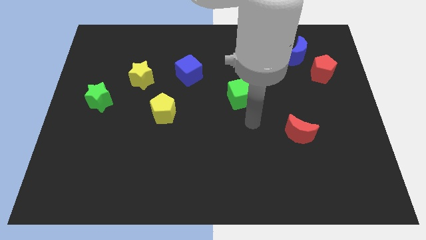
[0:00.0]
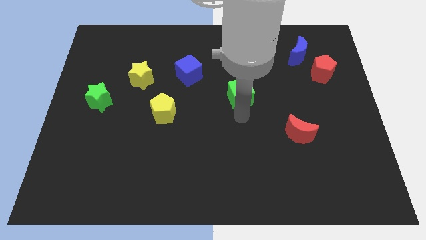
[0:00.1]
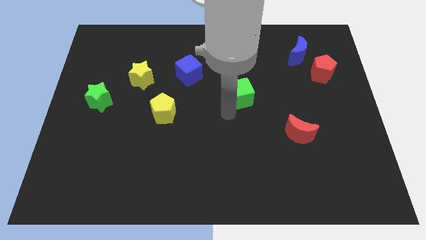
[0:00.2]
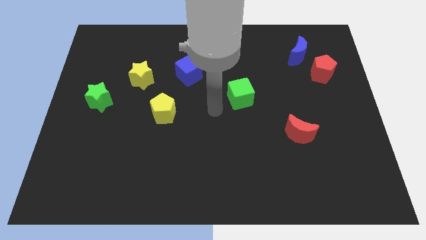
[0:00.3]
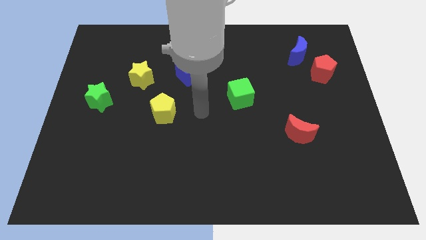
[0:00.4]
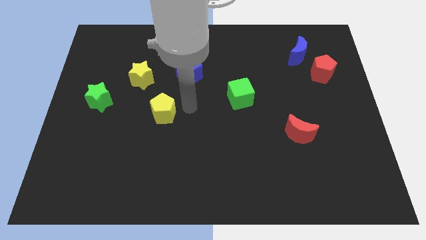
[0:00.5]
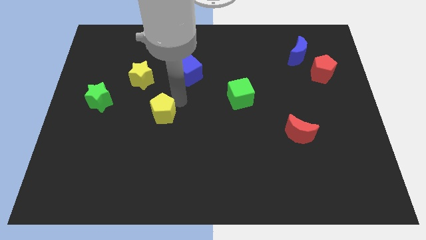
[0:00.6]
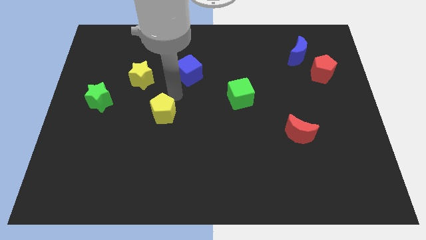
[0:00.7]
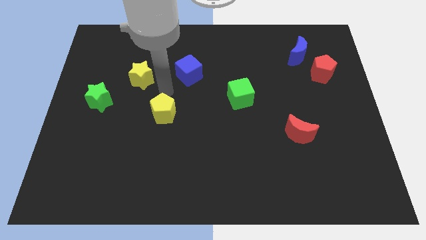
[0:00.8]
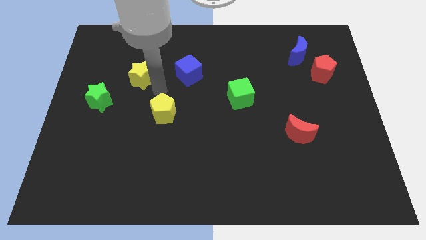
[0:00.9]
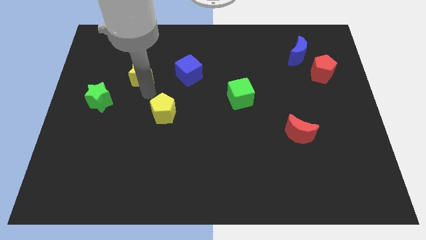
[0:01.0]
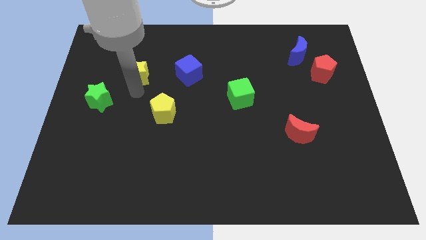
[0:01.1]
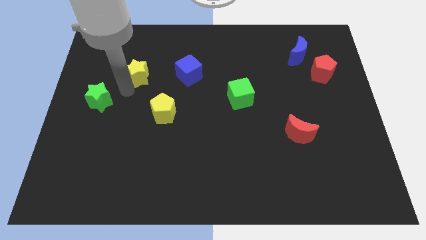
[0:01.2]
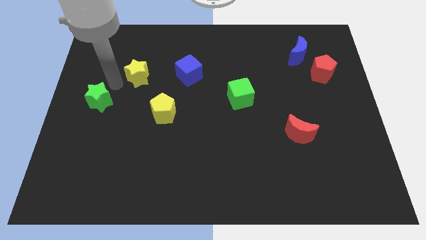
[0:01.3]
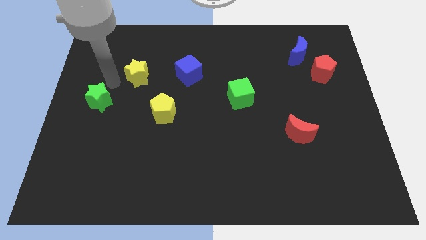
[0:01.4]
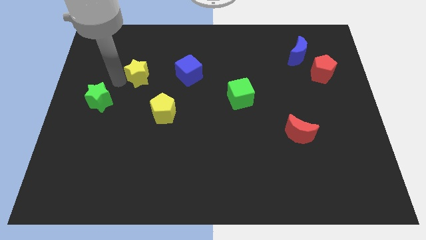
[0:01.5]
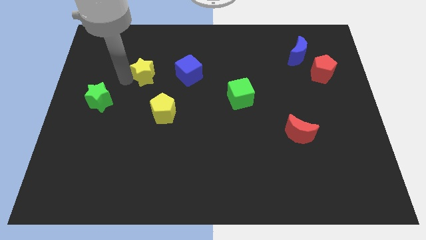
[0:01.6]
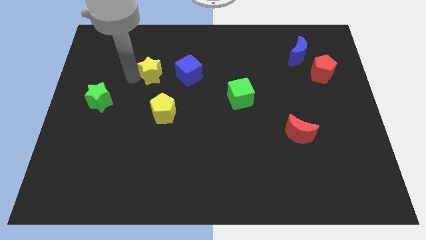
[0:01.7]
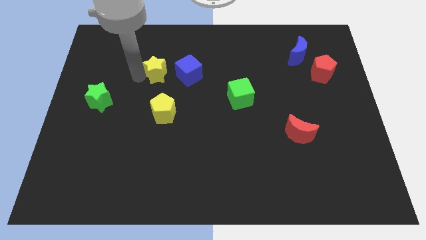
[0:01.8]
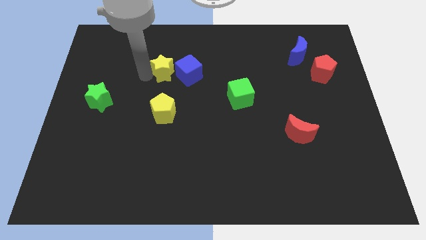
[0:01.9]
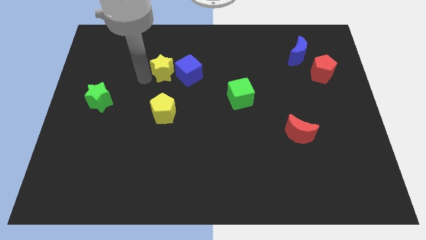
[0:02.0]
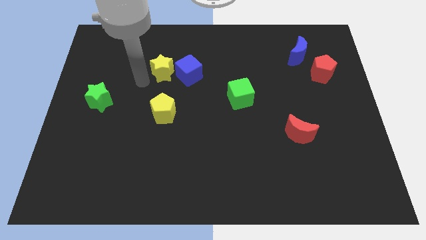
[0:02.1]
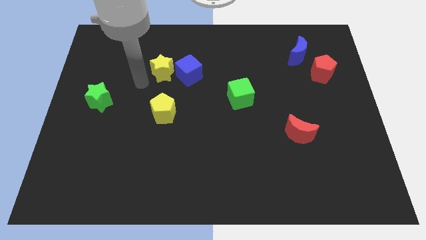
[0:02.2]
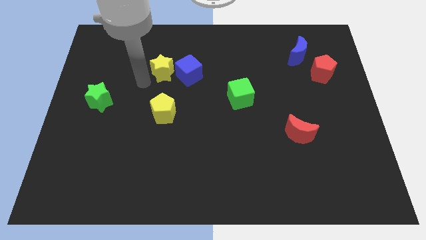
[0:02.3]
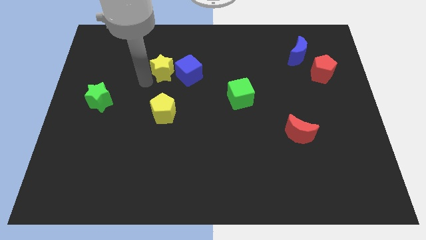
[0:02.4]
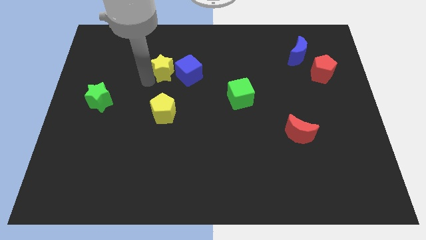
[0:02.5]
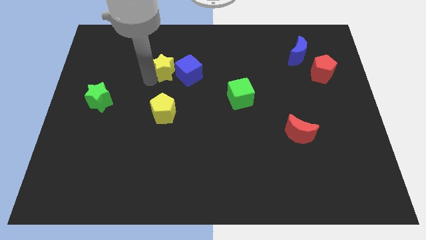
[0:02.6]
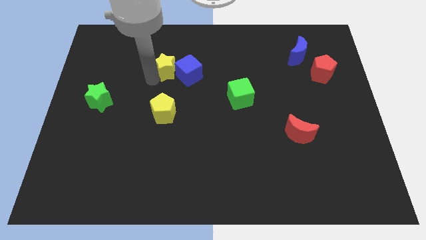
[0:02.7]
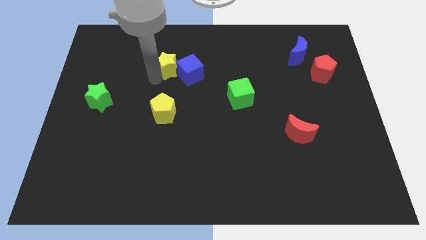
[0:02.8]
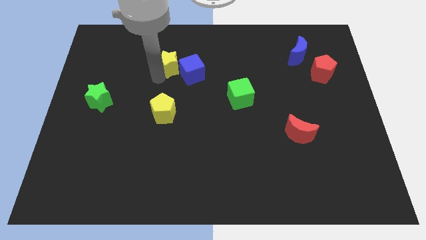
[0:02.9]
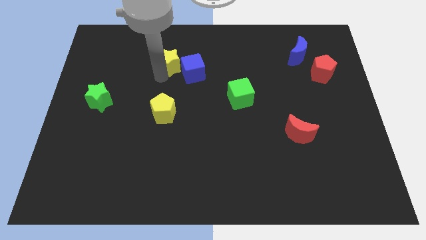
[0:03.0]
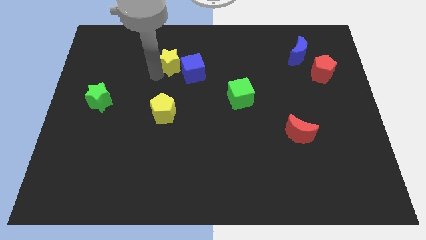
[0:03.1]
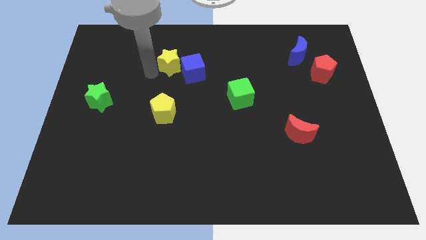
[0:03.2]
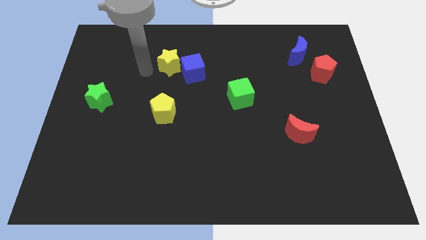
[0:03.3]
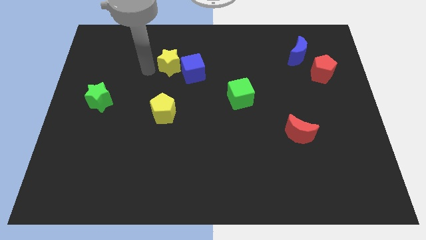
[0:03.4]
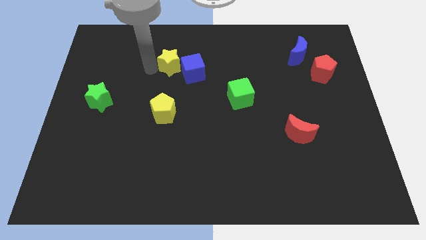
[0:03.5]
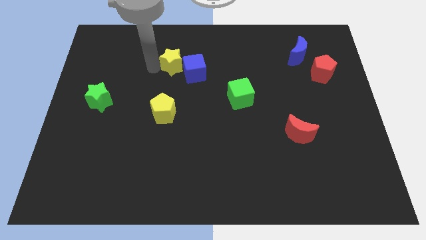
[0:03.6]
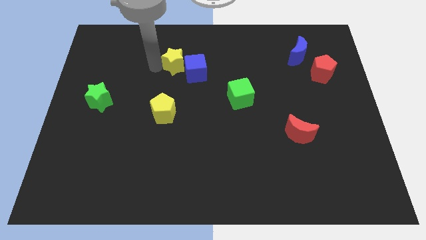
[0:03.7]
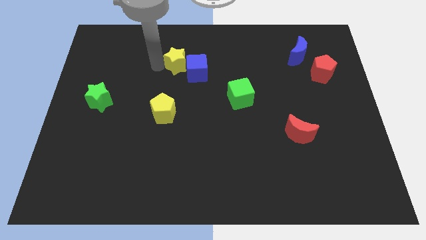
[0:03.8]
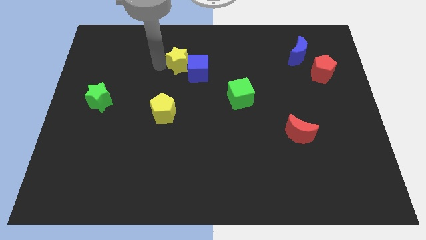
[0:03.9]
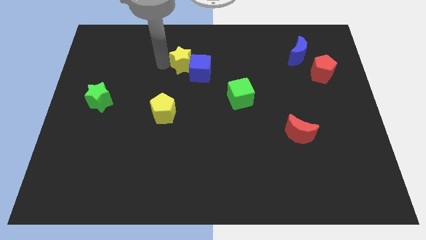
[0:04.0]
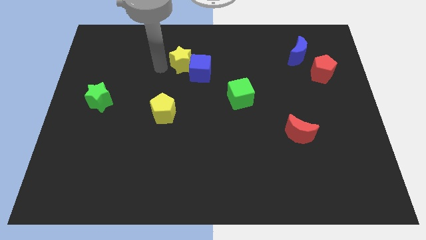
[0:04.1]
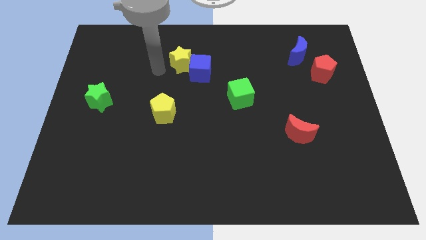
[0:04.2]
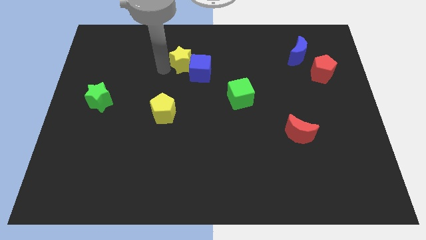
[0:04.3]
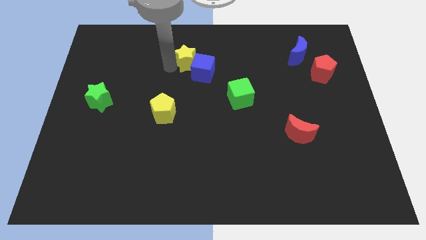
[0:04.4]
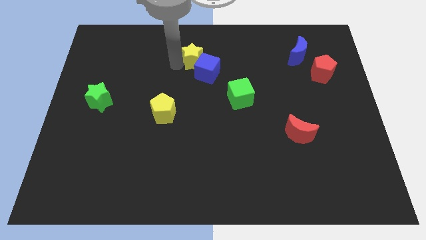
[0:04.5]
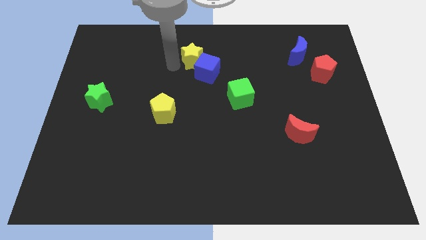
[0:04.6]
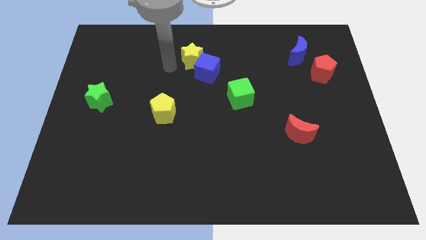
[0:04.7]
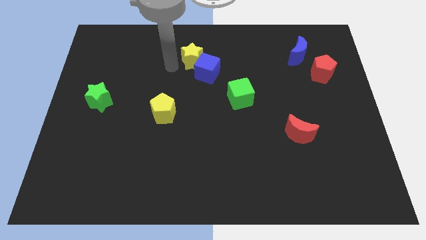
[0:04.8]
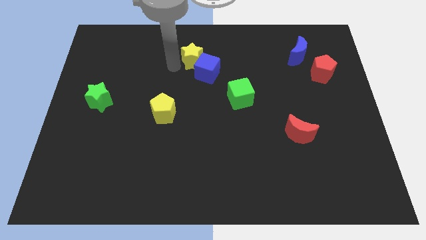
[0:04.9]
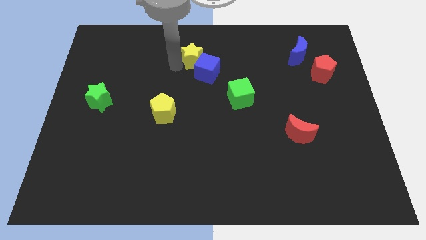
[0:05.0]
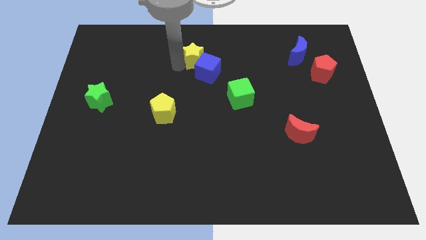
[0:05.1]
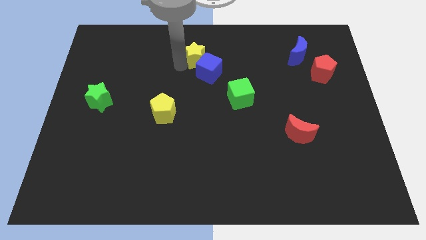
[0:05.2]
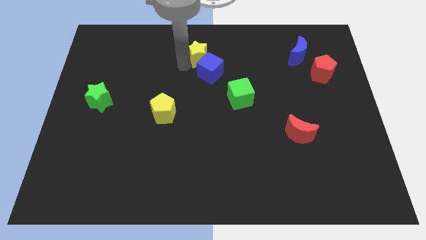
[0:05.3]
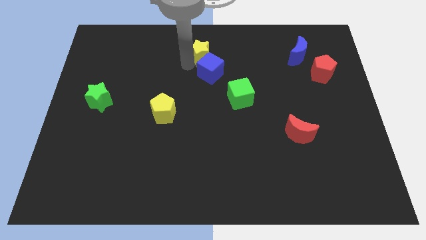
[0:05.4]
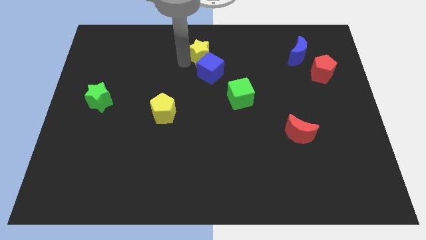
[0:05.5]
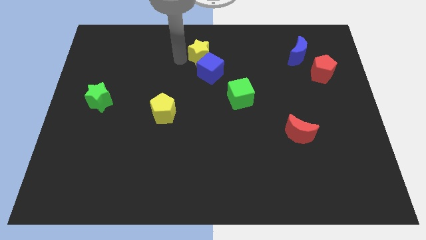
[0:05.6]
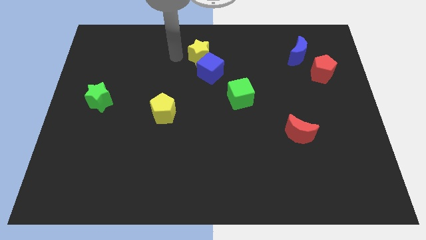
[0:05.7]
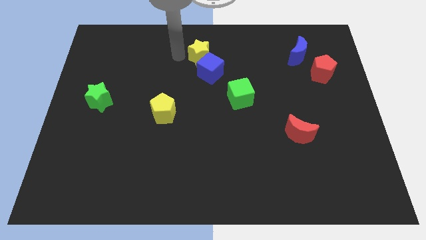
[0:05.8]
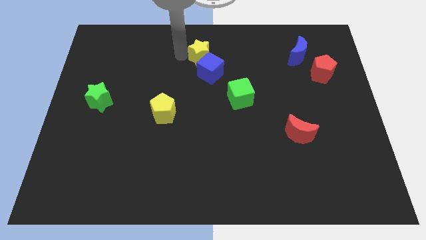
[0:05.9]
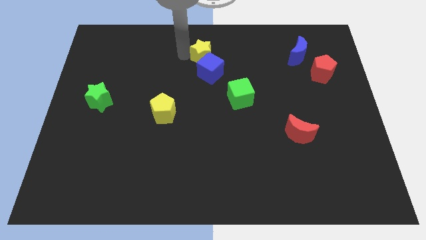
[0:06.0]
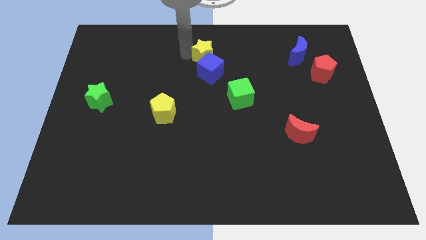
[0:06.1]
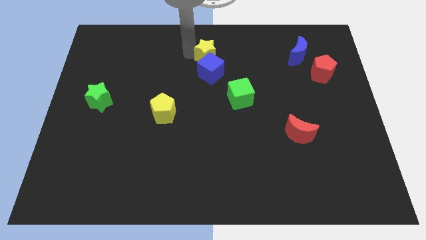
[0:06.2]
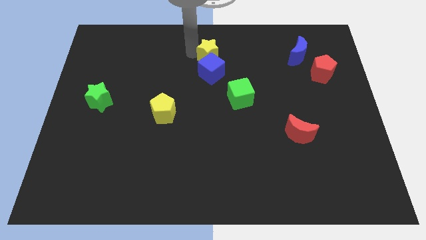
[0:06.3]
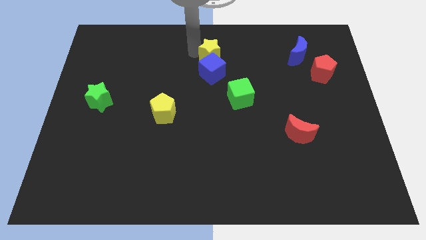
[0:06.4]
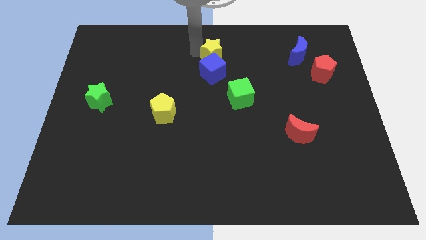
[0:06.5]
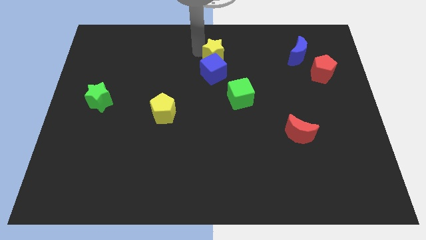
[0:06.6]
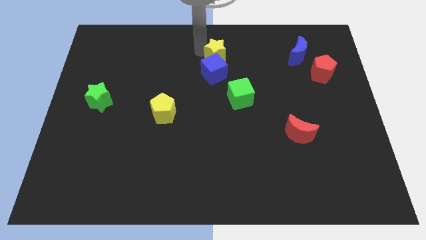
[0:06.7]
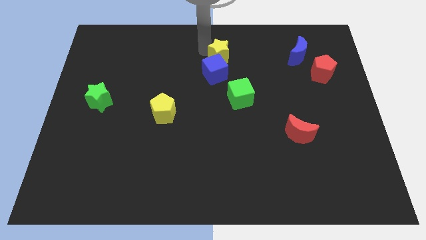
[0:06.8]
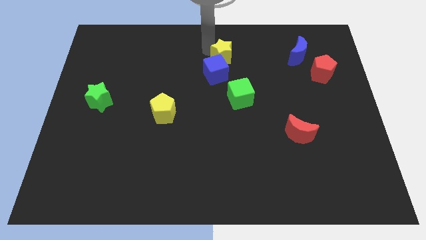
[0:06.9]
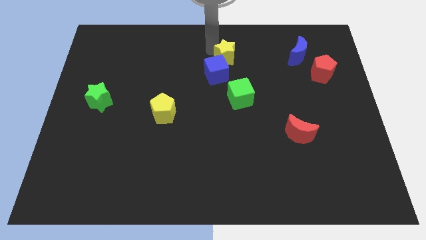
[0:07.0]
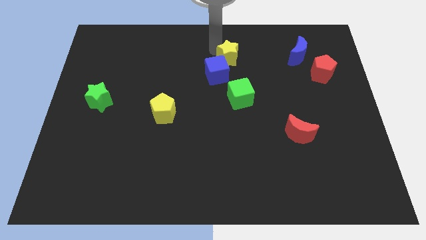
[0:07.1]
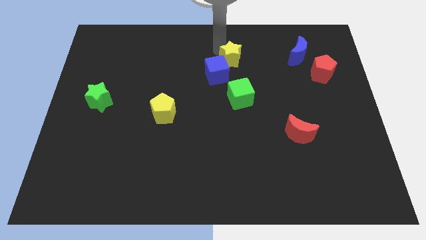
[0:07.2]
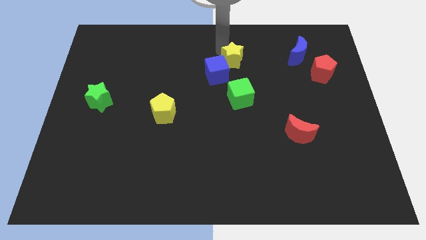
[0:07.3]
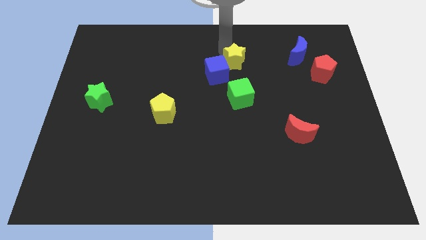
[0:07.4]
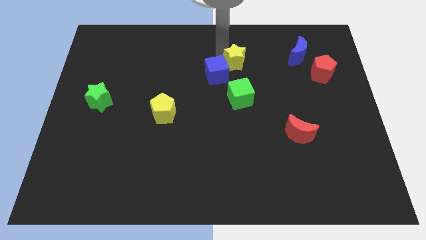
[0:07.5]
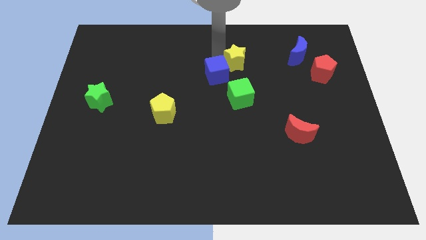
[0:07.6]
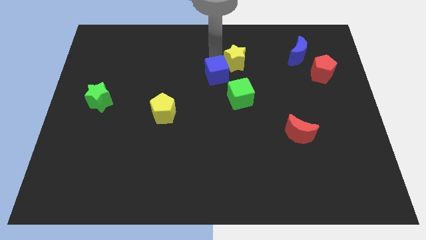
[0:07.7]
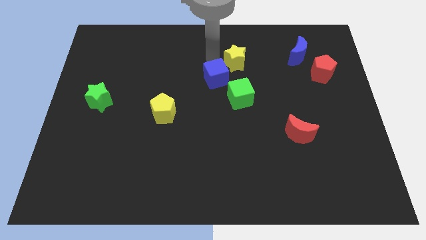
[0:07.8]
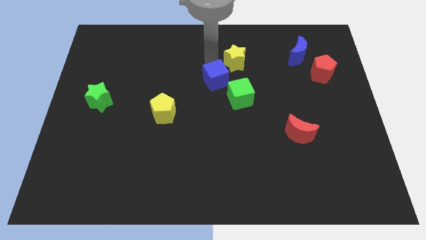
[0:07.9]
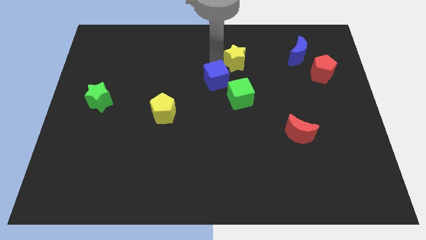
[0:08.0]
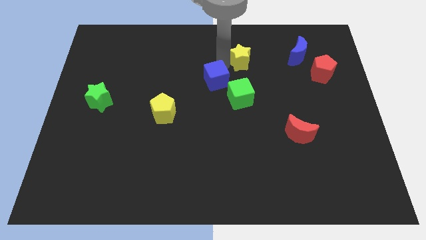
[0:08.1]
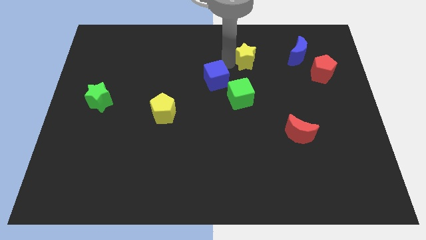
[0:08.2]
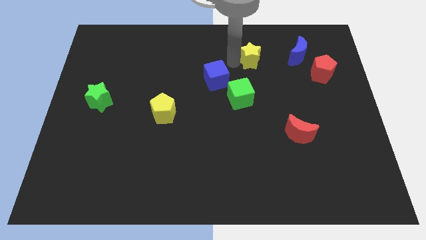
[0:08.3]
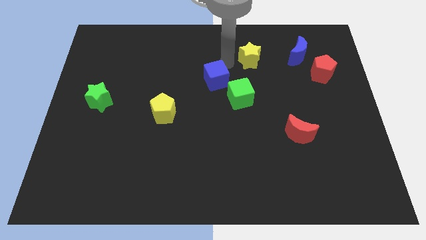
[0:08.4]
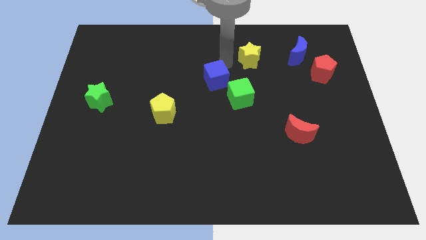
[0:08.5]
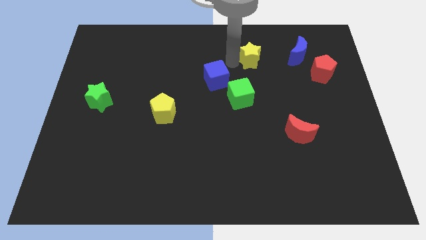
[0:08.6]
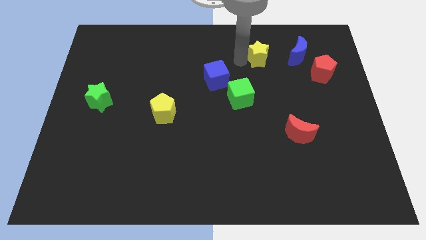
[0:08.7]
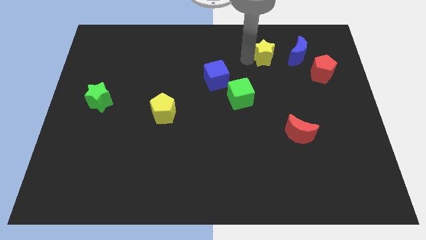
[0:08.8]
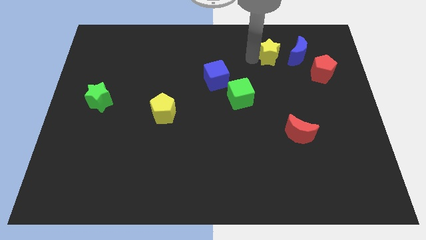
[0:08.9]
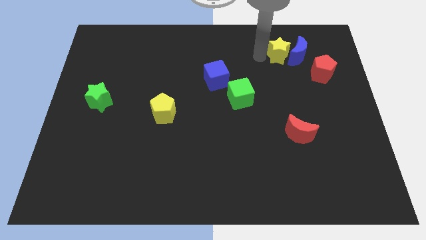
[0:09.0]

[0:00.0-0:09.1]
put the yellow star next to the blue moon
